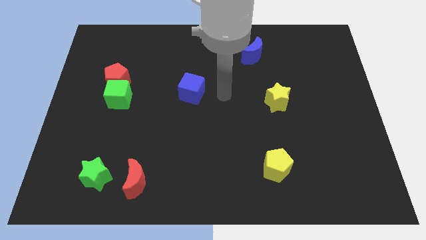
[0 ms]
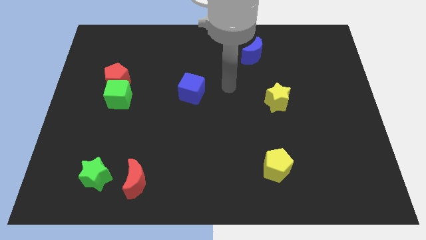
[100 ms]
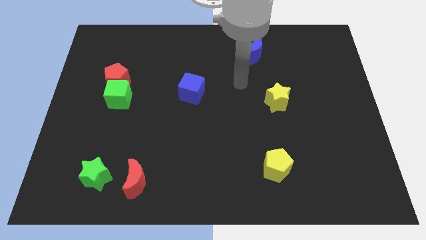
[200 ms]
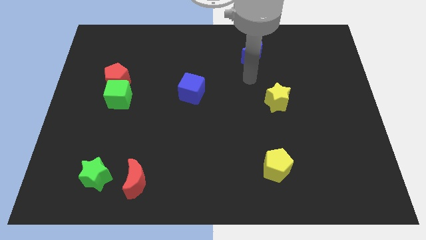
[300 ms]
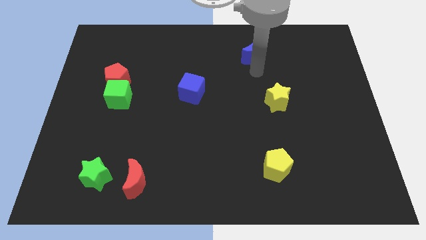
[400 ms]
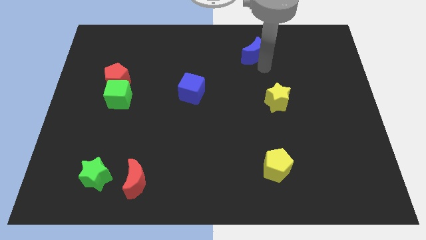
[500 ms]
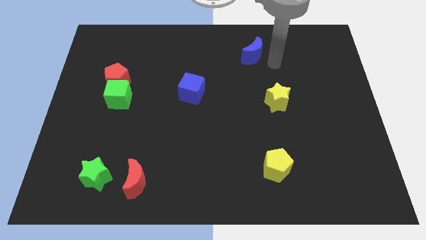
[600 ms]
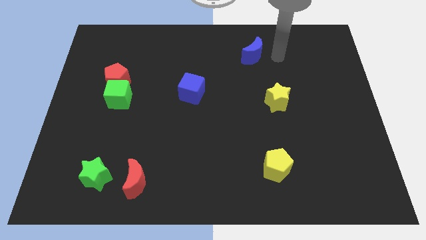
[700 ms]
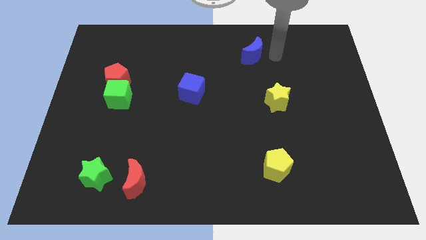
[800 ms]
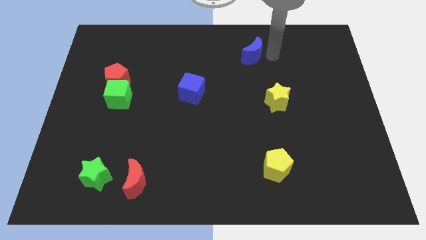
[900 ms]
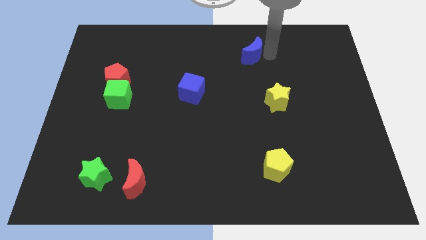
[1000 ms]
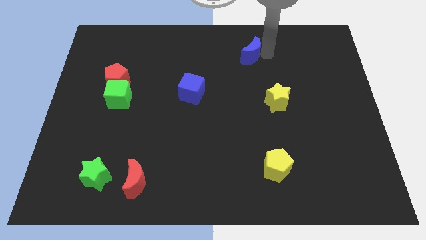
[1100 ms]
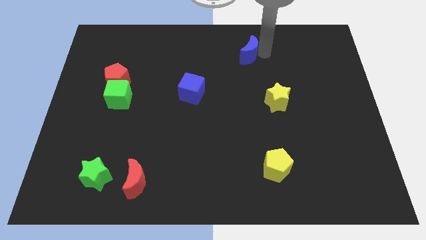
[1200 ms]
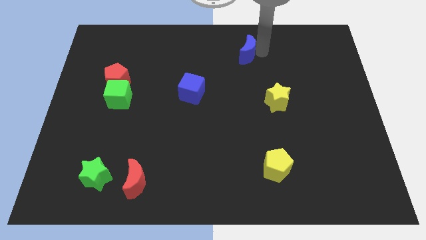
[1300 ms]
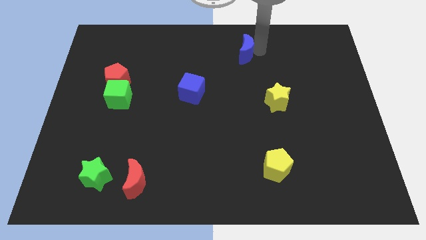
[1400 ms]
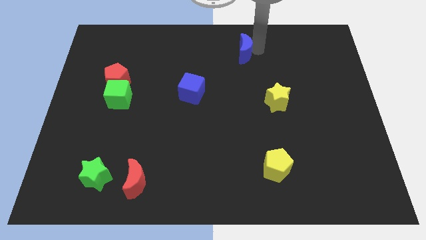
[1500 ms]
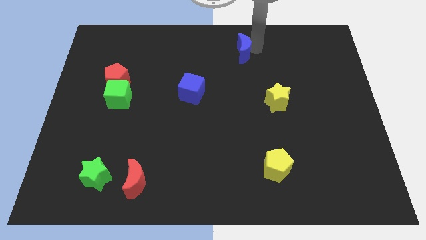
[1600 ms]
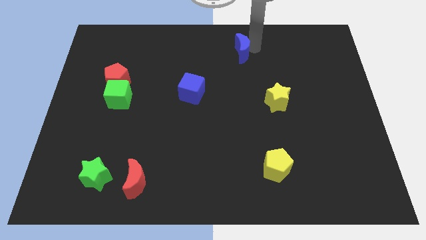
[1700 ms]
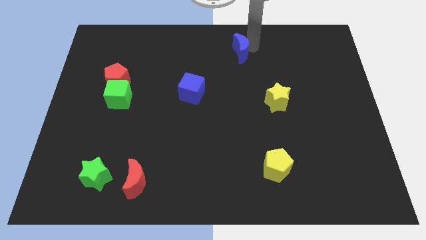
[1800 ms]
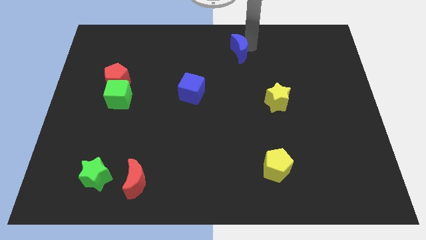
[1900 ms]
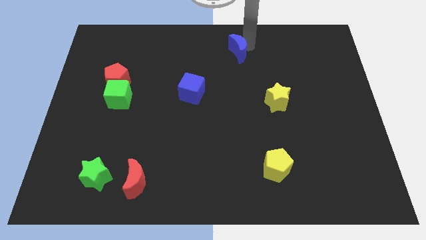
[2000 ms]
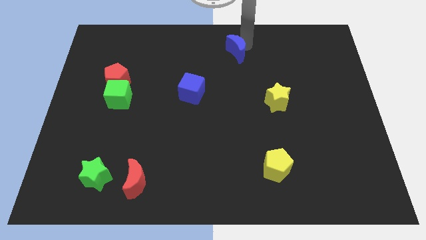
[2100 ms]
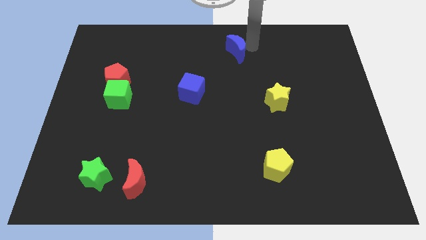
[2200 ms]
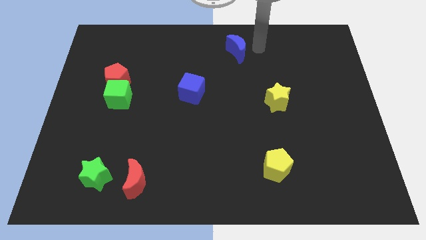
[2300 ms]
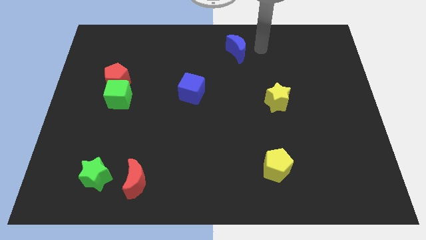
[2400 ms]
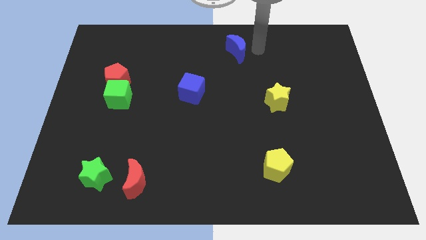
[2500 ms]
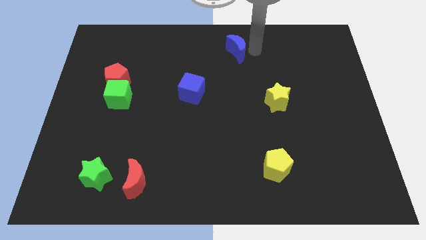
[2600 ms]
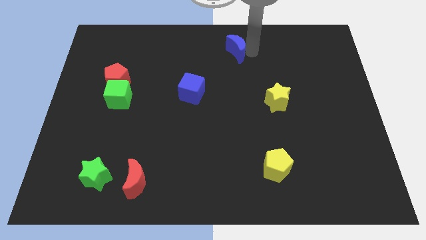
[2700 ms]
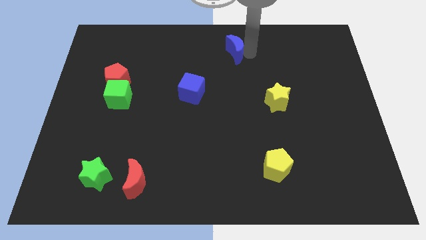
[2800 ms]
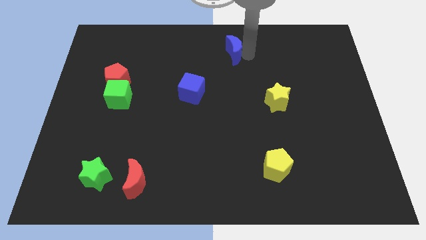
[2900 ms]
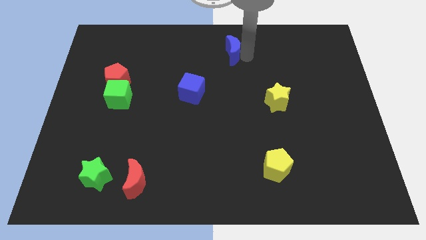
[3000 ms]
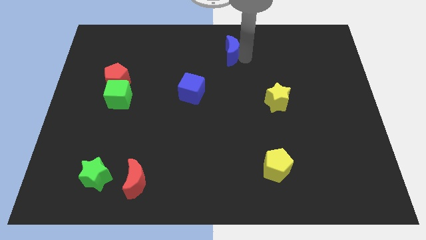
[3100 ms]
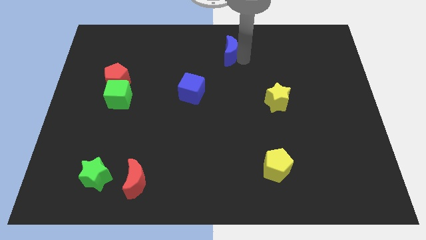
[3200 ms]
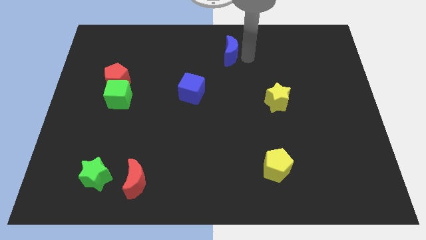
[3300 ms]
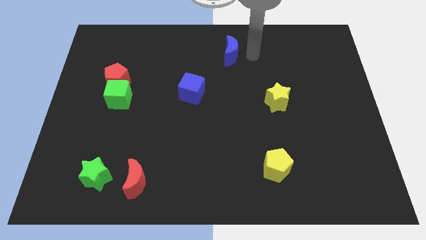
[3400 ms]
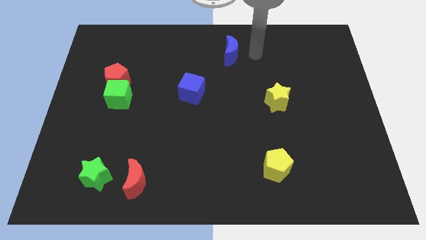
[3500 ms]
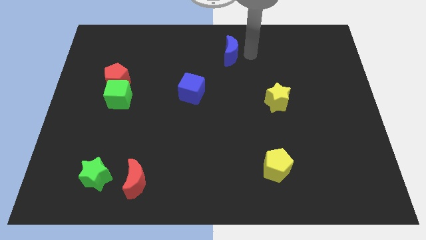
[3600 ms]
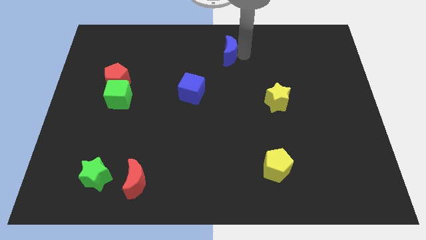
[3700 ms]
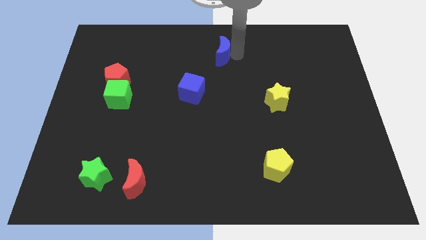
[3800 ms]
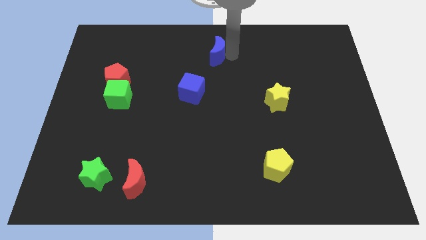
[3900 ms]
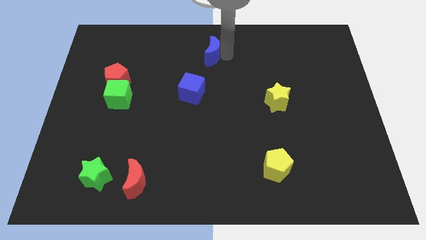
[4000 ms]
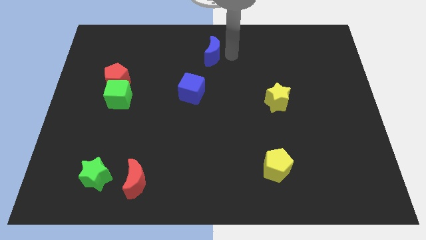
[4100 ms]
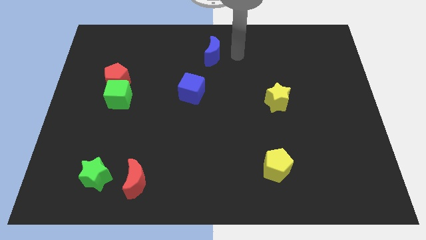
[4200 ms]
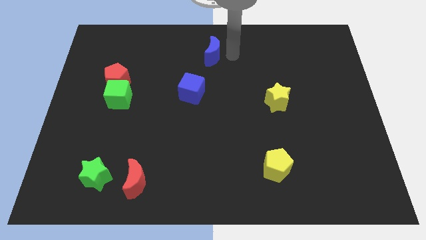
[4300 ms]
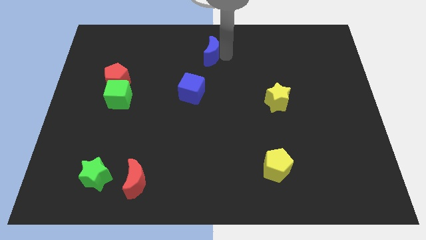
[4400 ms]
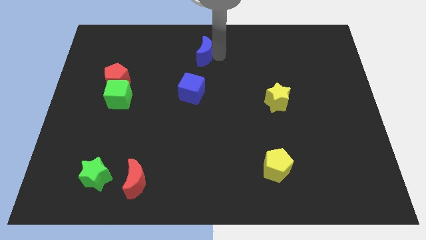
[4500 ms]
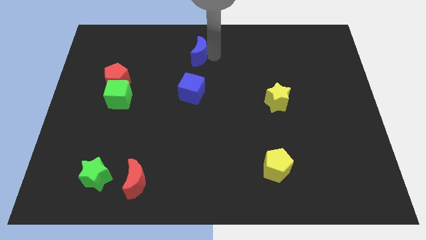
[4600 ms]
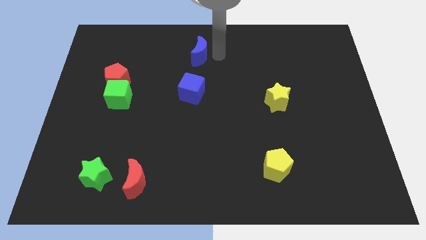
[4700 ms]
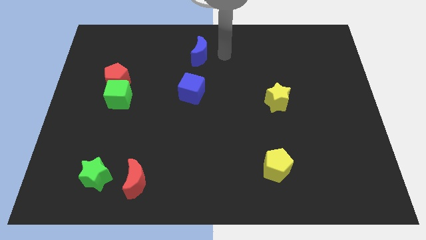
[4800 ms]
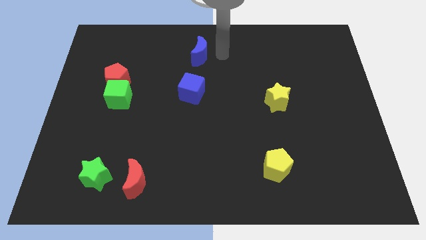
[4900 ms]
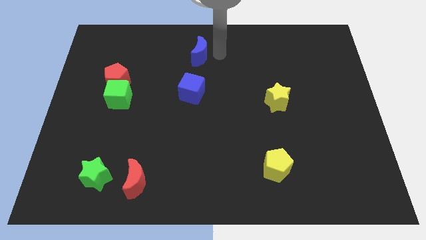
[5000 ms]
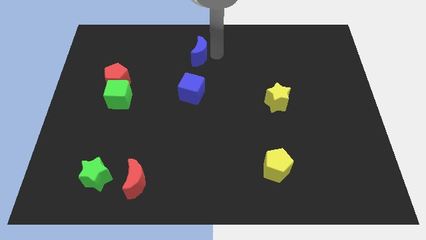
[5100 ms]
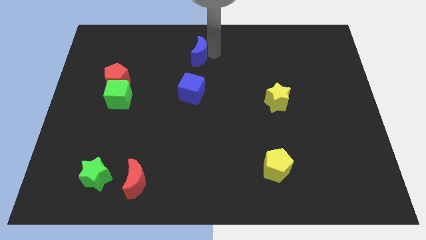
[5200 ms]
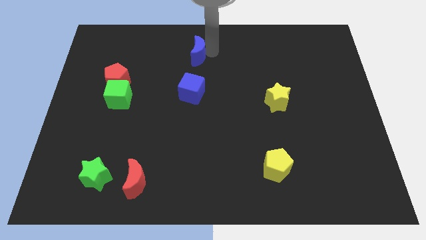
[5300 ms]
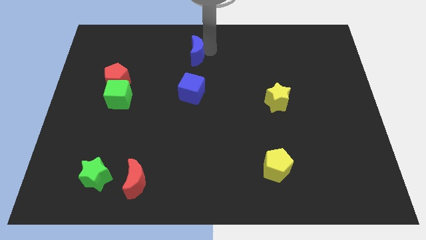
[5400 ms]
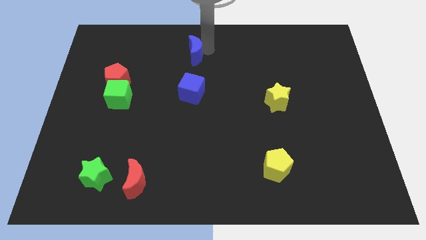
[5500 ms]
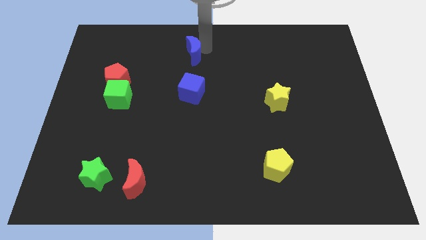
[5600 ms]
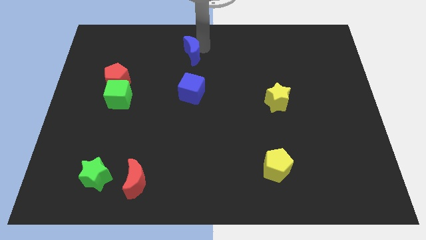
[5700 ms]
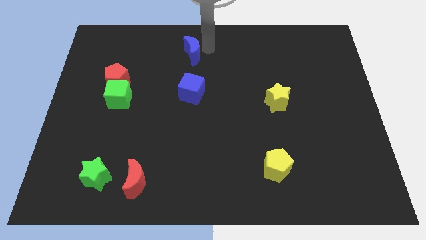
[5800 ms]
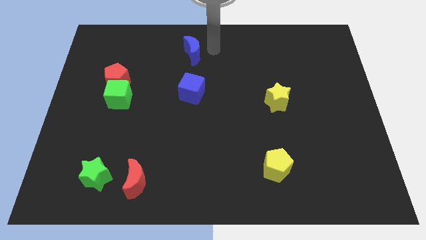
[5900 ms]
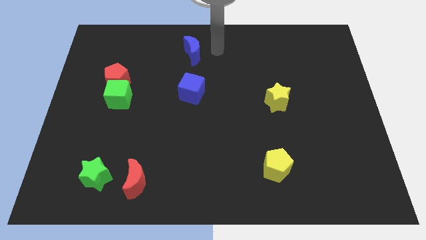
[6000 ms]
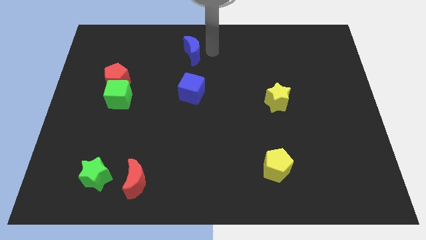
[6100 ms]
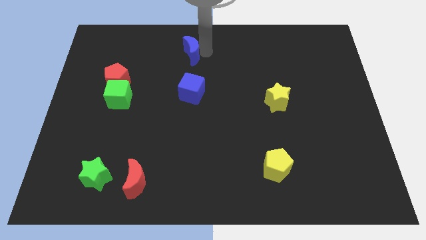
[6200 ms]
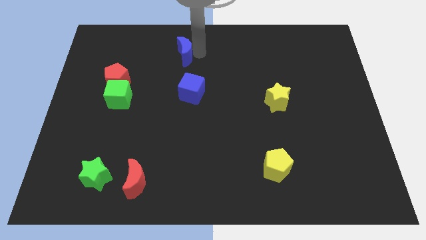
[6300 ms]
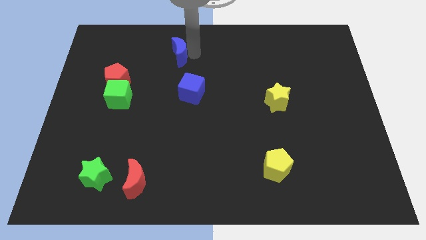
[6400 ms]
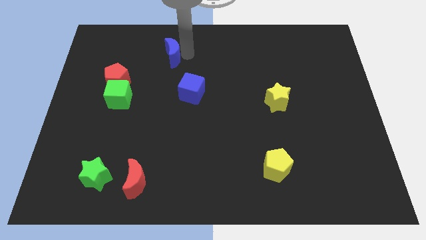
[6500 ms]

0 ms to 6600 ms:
move the blue moon left

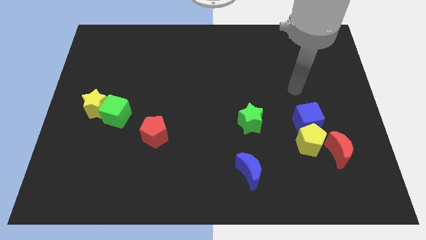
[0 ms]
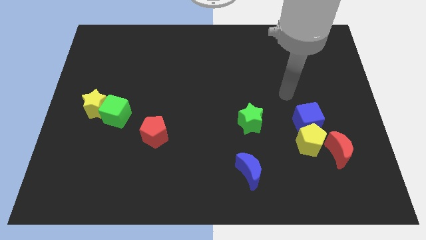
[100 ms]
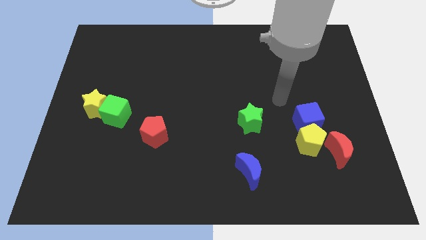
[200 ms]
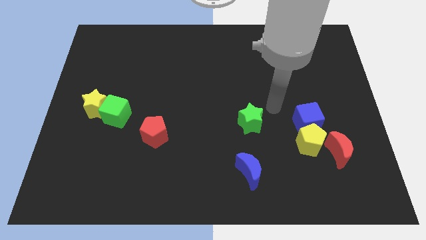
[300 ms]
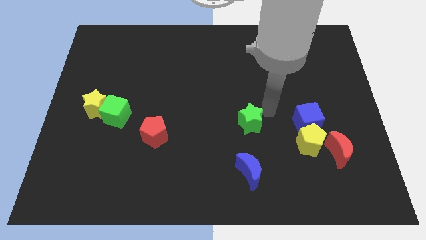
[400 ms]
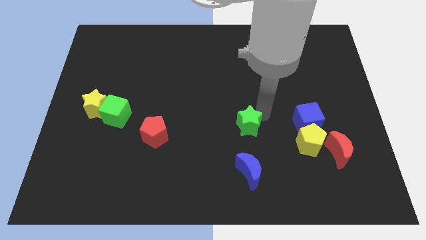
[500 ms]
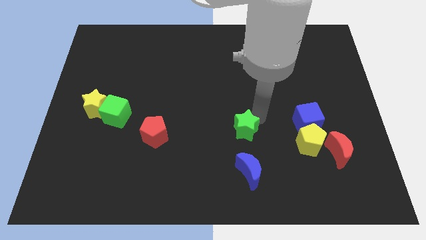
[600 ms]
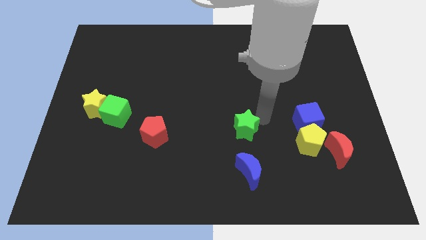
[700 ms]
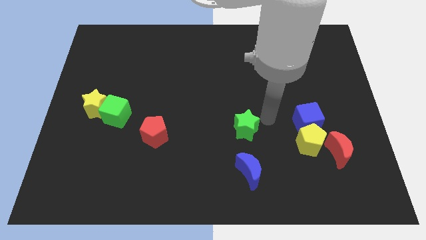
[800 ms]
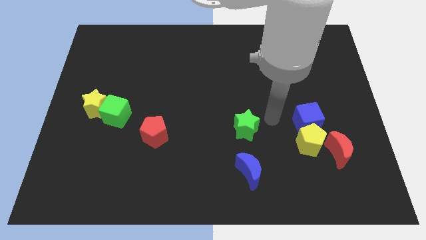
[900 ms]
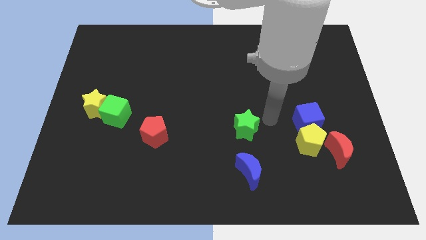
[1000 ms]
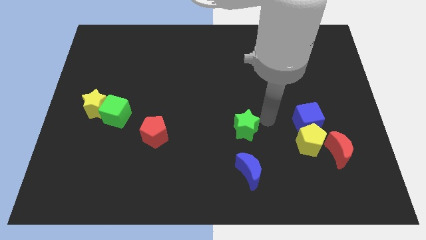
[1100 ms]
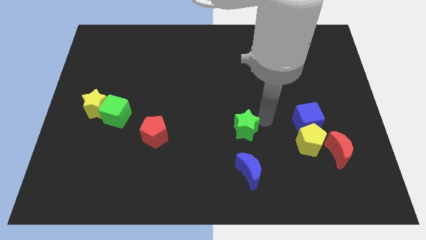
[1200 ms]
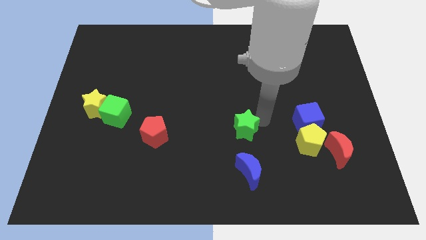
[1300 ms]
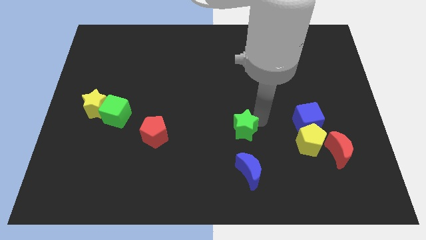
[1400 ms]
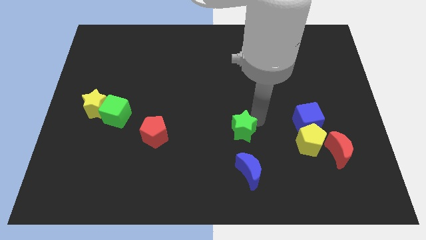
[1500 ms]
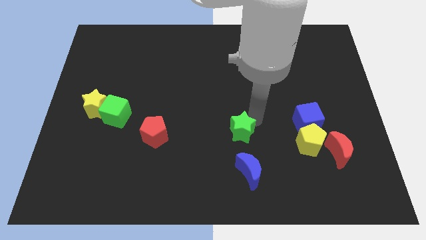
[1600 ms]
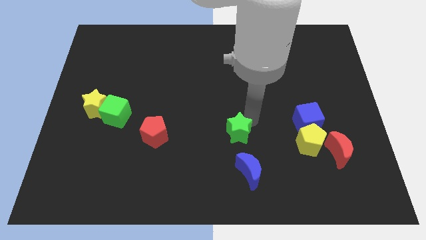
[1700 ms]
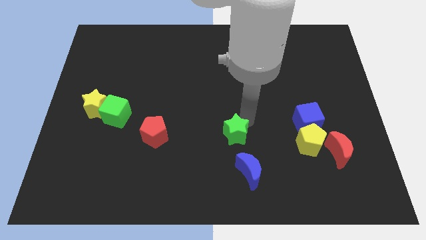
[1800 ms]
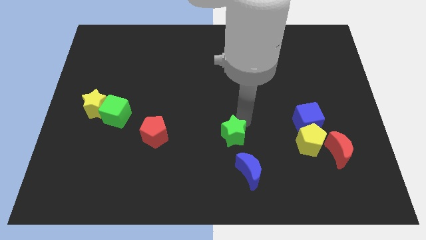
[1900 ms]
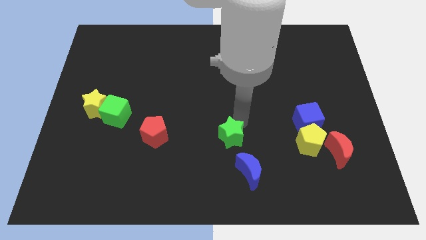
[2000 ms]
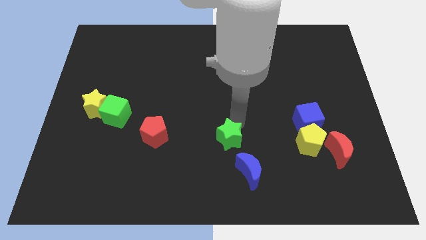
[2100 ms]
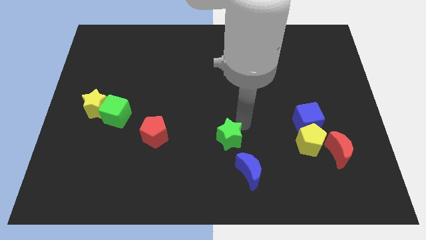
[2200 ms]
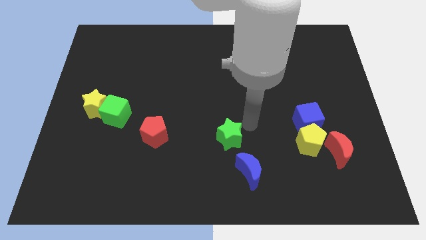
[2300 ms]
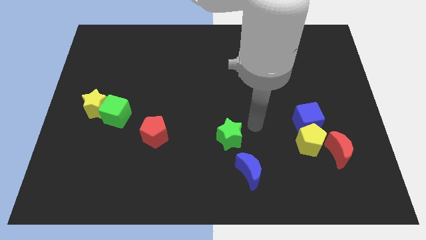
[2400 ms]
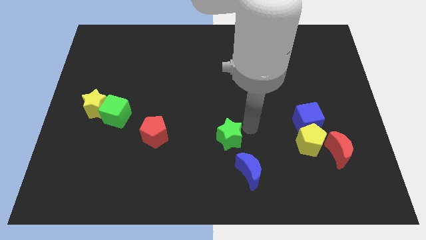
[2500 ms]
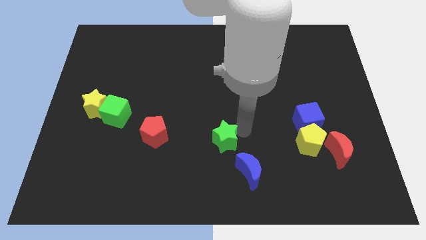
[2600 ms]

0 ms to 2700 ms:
push the green star a little down and to the left diagonally
